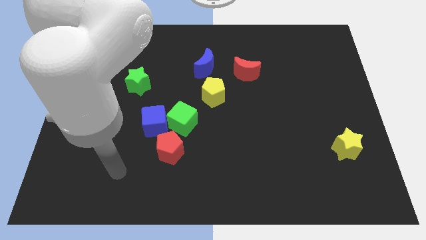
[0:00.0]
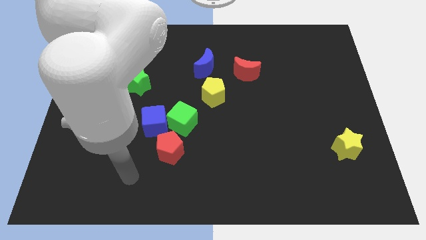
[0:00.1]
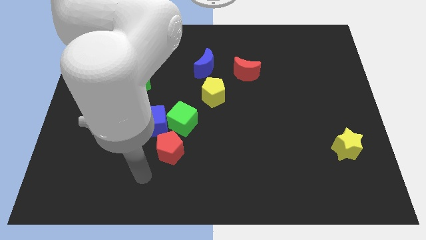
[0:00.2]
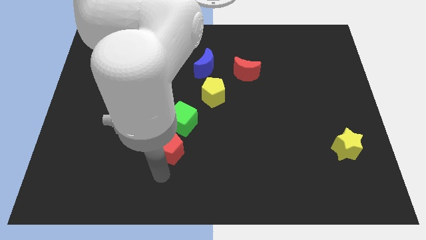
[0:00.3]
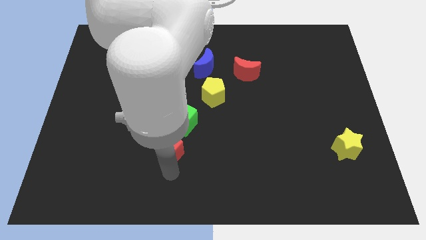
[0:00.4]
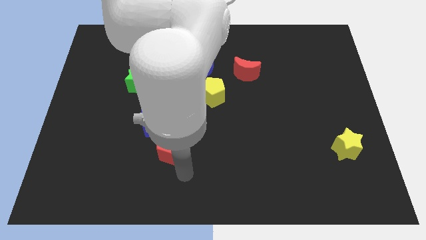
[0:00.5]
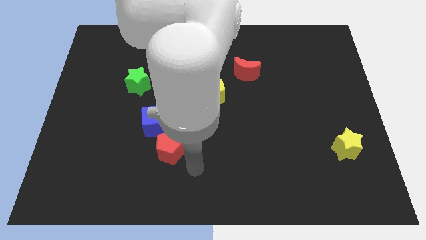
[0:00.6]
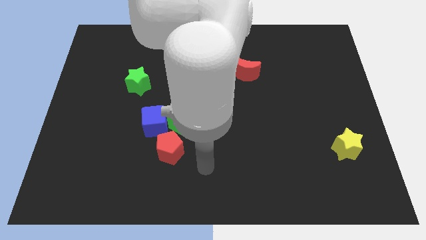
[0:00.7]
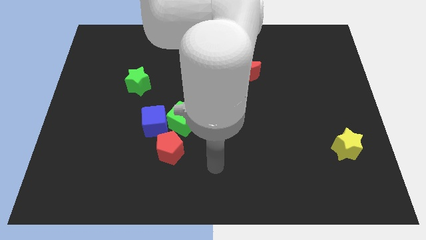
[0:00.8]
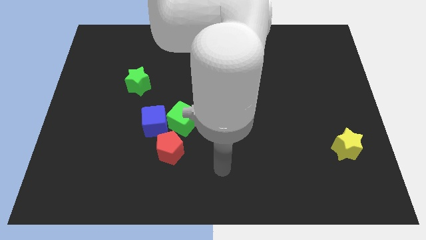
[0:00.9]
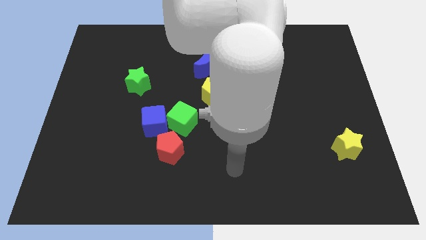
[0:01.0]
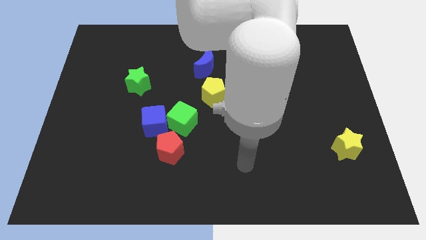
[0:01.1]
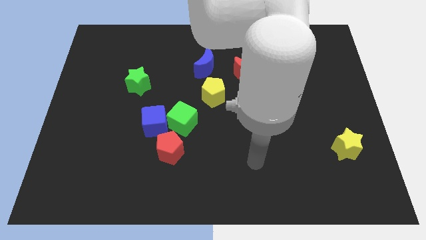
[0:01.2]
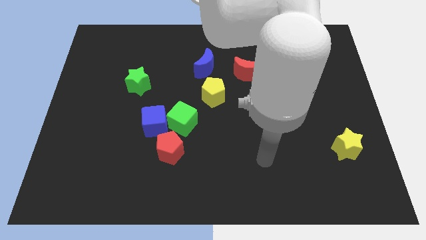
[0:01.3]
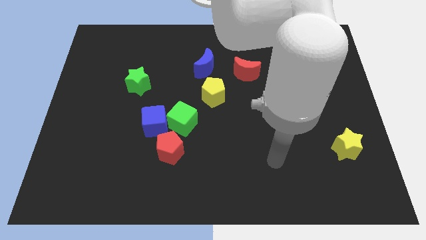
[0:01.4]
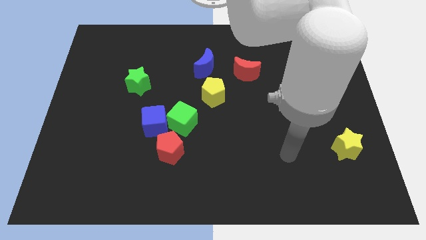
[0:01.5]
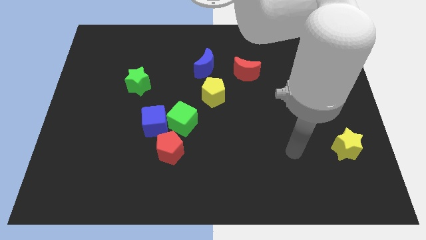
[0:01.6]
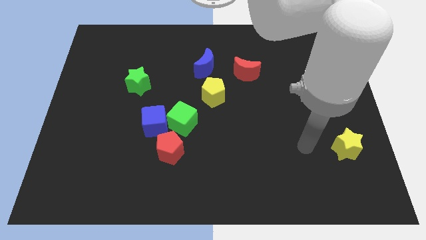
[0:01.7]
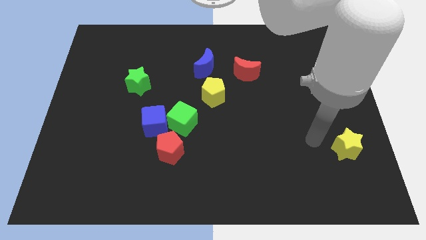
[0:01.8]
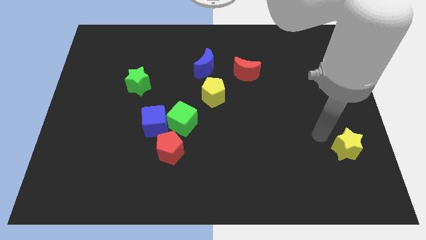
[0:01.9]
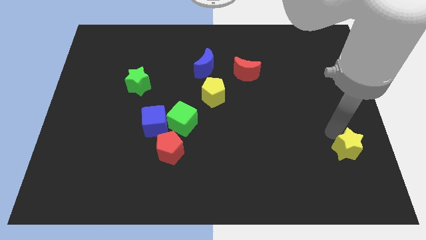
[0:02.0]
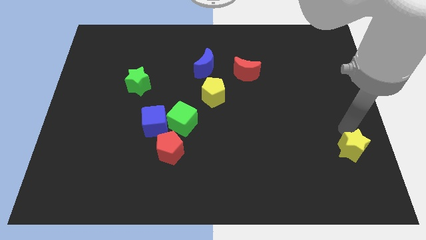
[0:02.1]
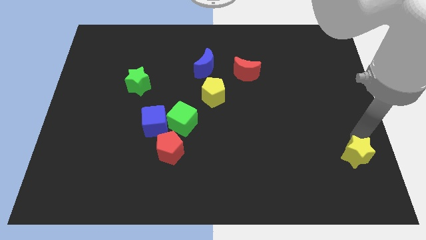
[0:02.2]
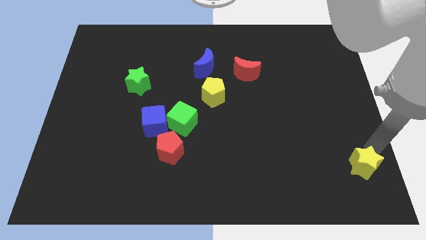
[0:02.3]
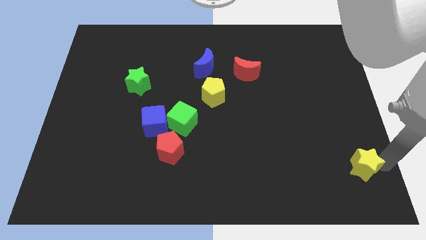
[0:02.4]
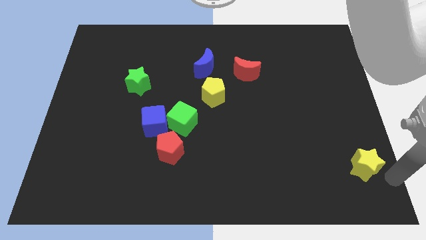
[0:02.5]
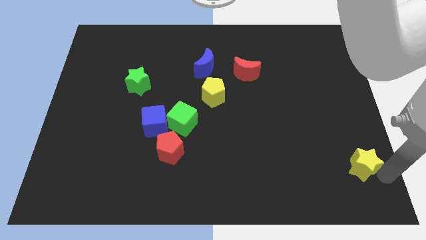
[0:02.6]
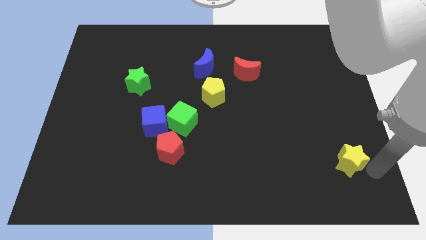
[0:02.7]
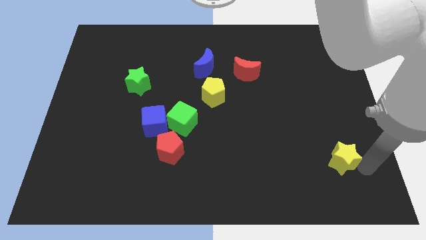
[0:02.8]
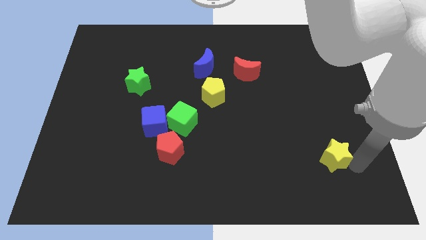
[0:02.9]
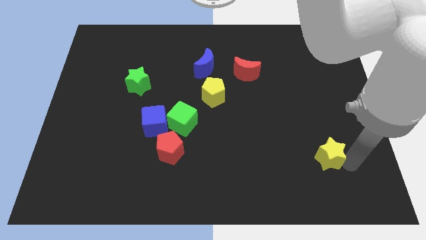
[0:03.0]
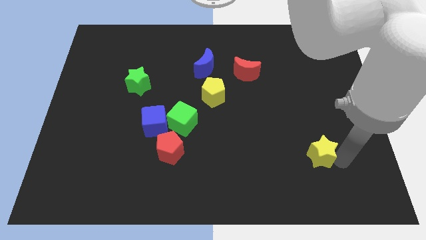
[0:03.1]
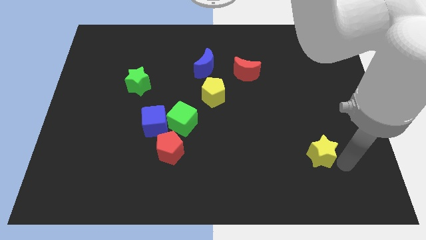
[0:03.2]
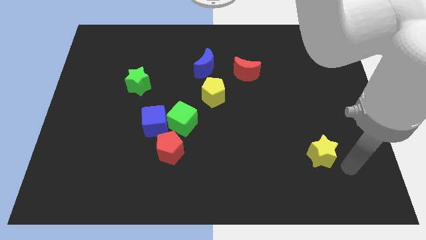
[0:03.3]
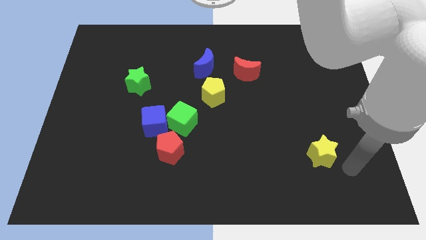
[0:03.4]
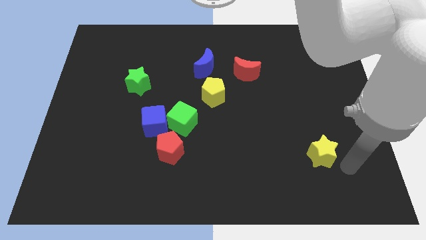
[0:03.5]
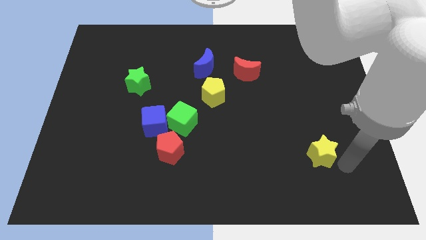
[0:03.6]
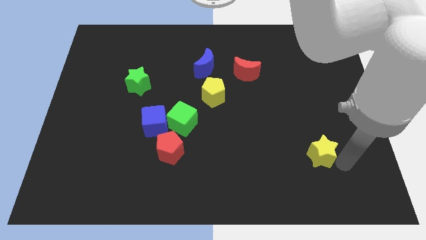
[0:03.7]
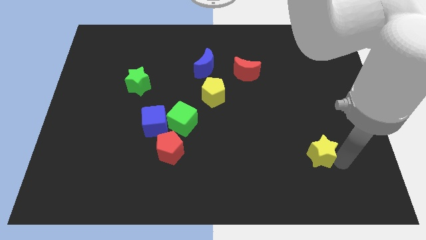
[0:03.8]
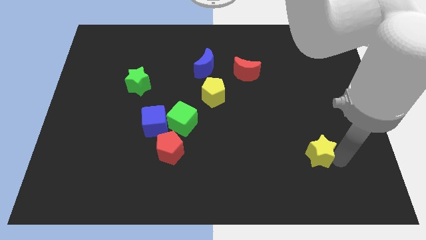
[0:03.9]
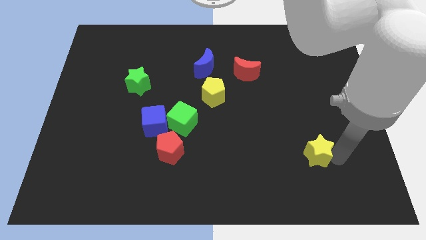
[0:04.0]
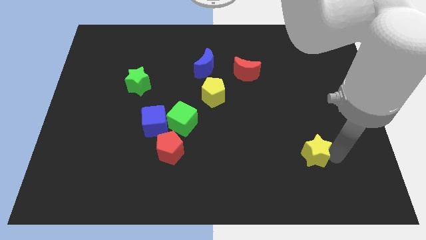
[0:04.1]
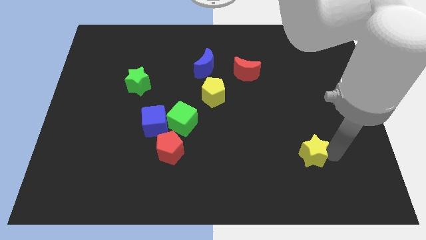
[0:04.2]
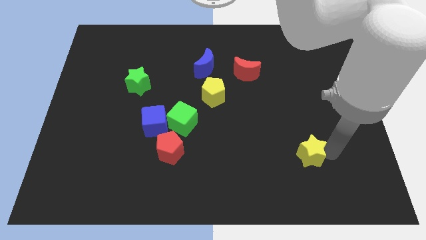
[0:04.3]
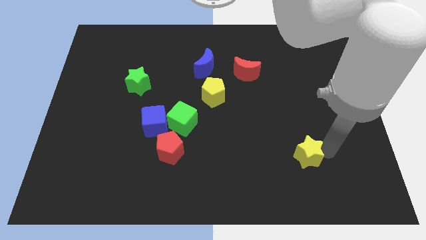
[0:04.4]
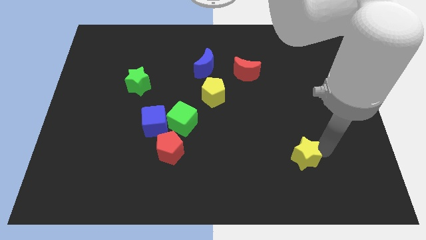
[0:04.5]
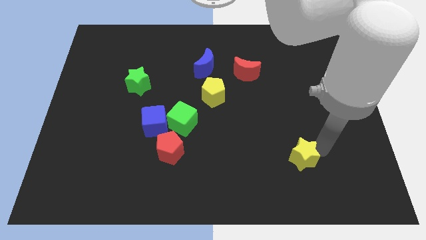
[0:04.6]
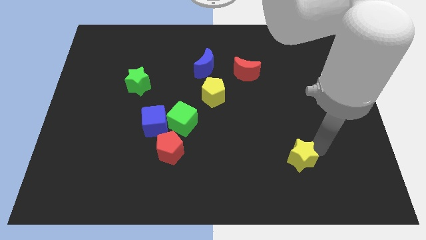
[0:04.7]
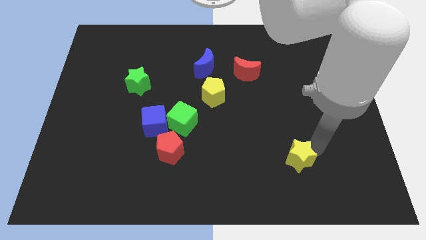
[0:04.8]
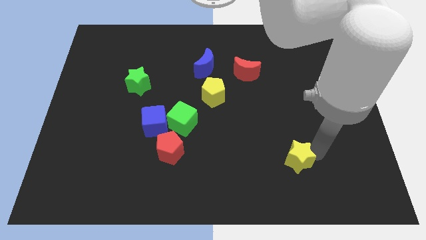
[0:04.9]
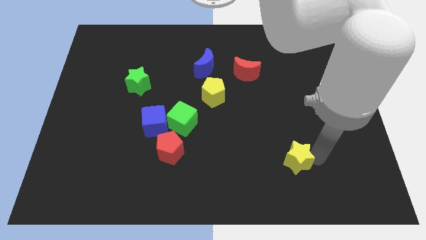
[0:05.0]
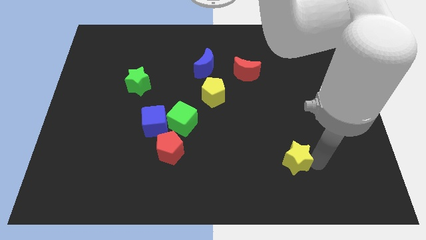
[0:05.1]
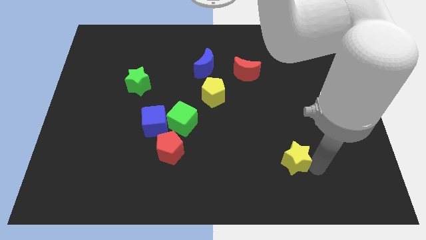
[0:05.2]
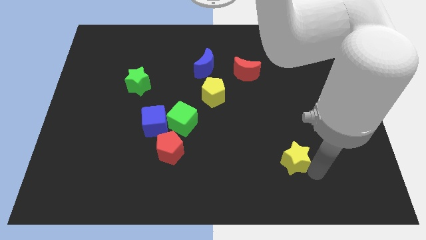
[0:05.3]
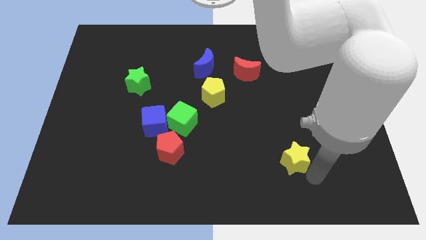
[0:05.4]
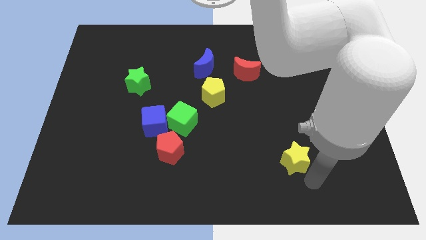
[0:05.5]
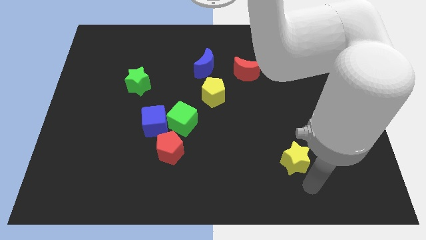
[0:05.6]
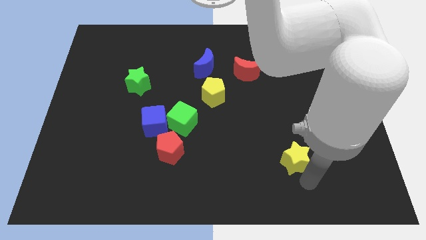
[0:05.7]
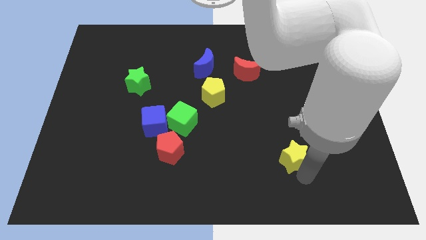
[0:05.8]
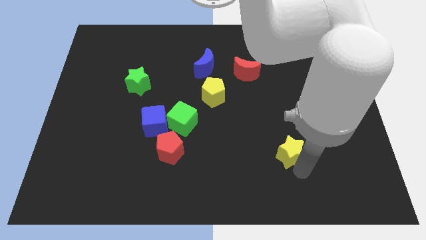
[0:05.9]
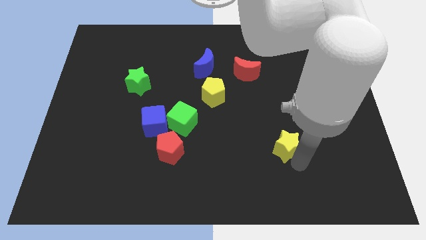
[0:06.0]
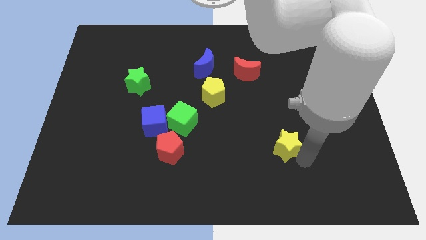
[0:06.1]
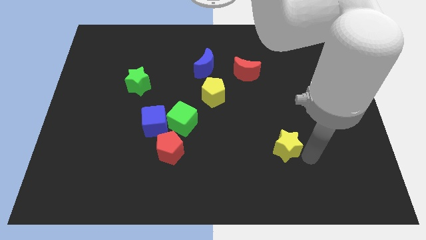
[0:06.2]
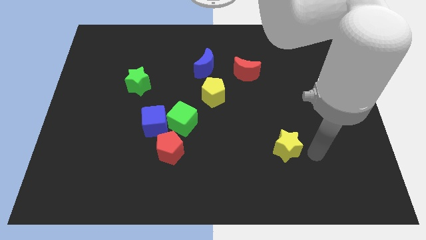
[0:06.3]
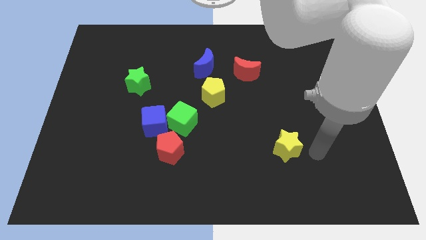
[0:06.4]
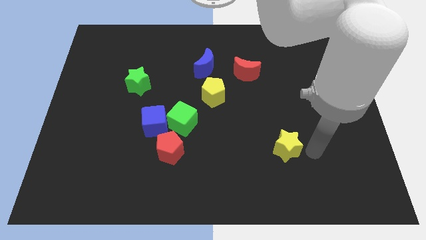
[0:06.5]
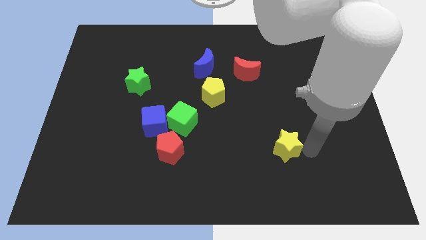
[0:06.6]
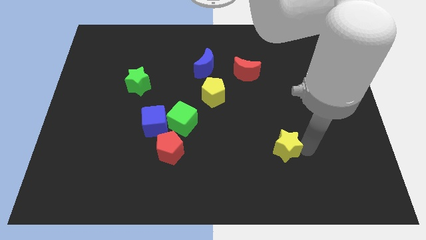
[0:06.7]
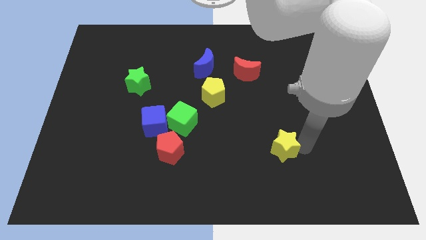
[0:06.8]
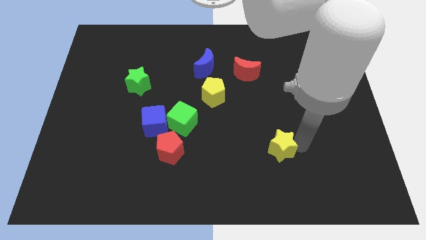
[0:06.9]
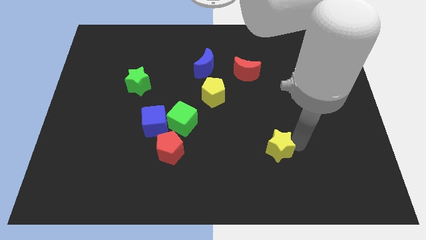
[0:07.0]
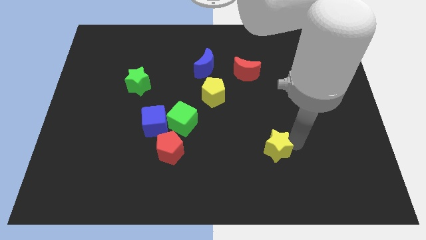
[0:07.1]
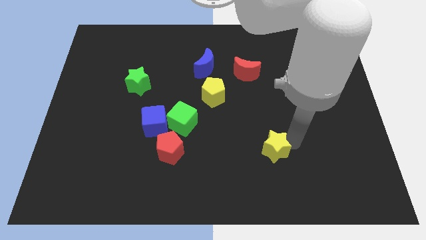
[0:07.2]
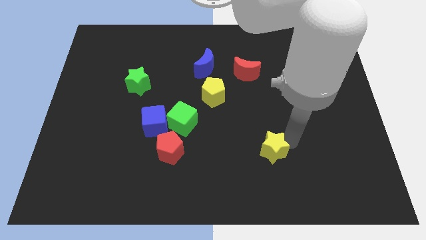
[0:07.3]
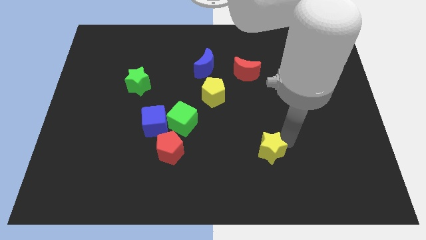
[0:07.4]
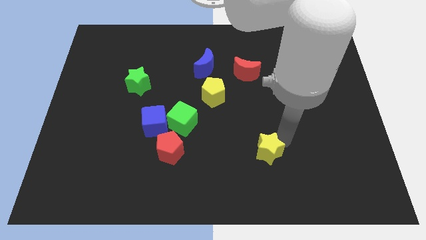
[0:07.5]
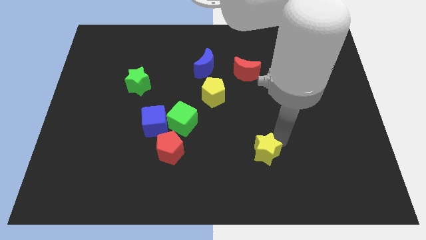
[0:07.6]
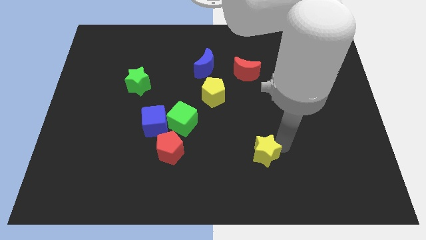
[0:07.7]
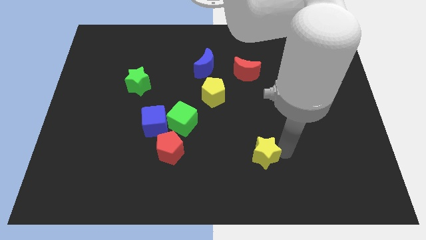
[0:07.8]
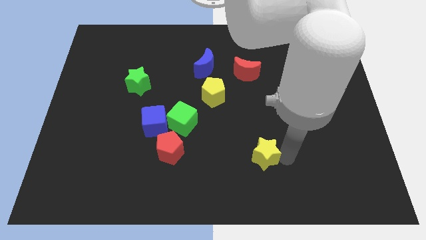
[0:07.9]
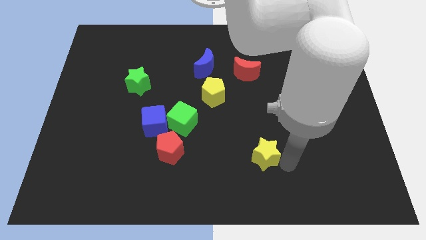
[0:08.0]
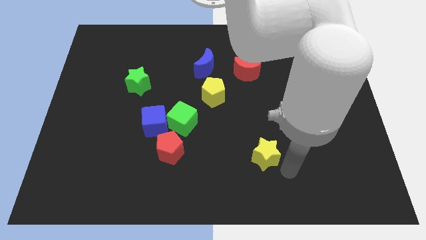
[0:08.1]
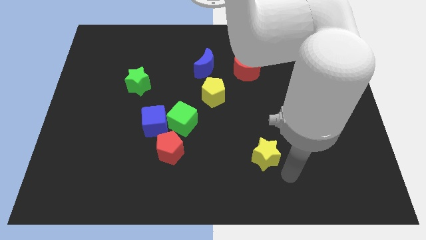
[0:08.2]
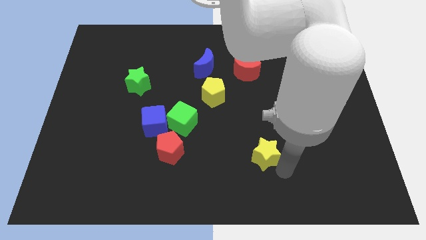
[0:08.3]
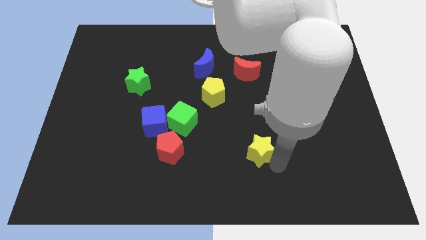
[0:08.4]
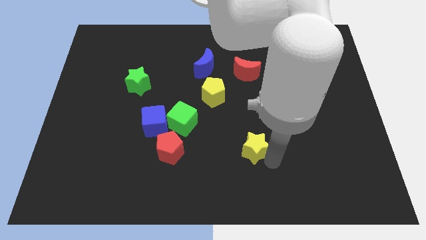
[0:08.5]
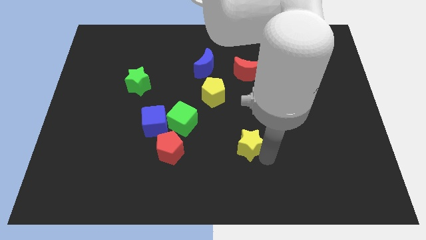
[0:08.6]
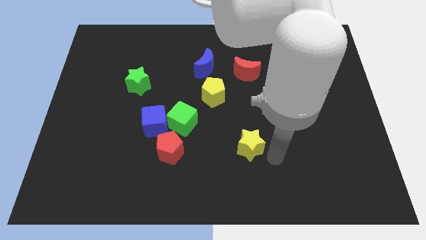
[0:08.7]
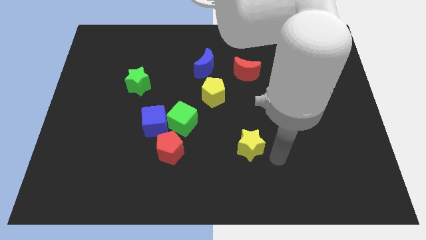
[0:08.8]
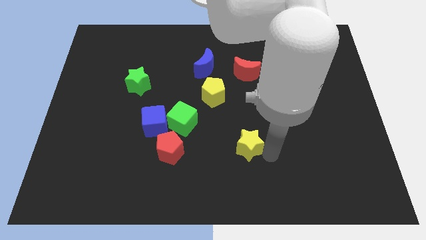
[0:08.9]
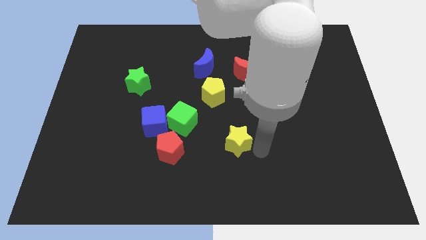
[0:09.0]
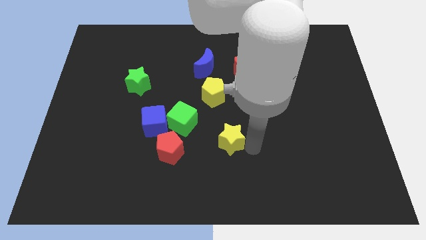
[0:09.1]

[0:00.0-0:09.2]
slide the yellow star to the bottom of the yellow pentagon
